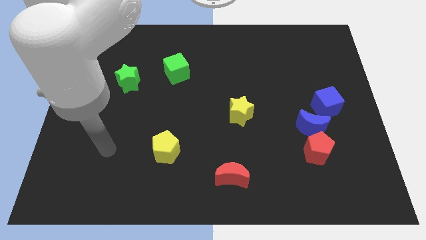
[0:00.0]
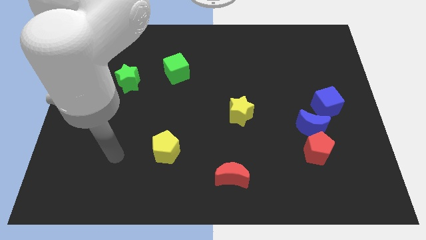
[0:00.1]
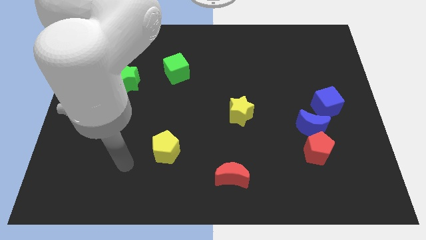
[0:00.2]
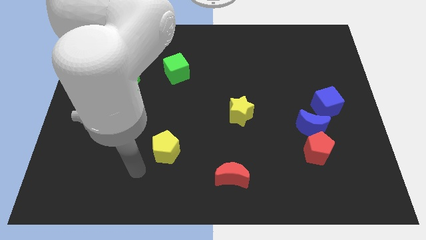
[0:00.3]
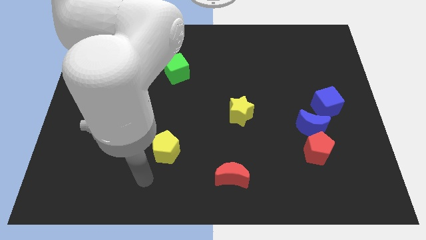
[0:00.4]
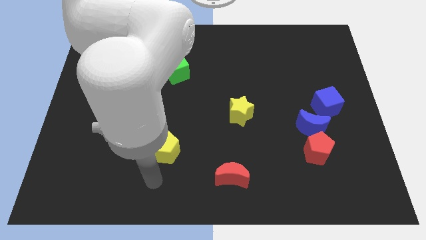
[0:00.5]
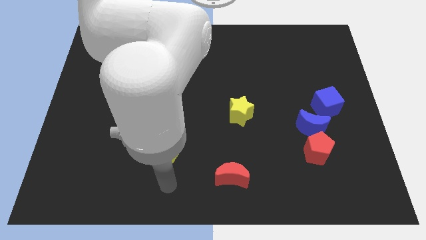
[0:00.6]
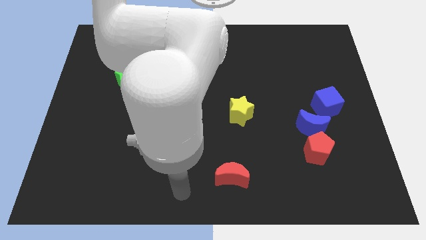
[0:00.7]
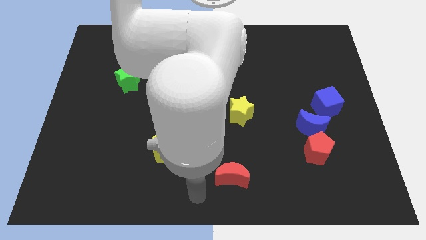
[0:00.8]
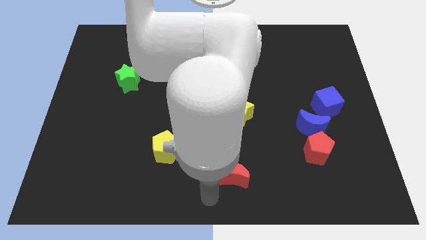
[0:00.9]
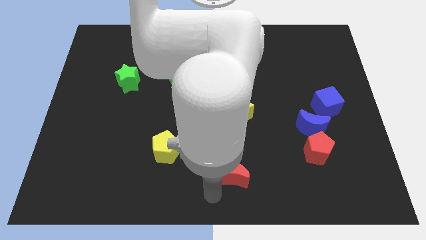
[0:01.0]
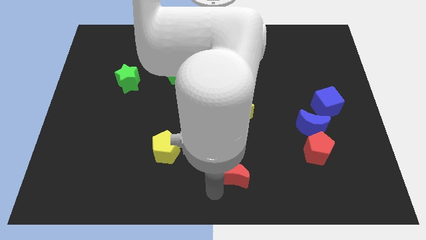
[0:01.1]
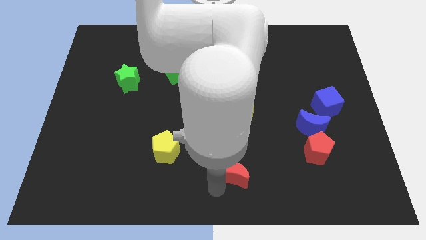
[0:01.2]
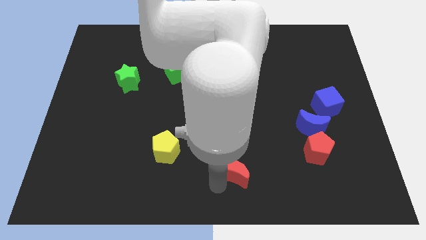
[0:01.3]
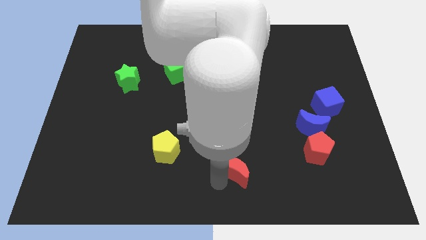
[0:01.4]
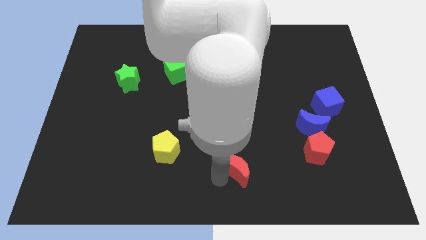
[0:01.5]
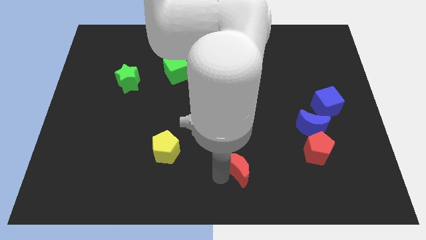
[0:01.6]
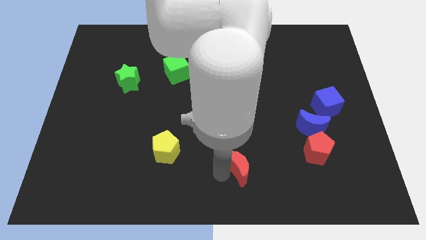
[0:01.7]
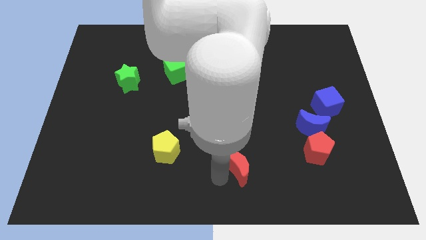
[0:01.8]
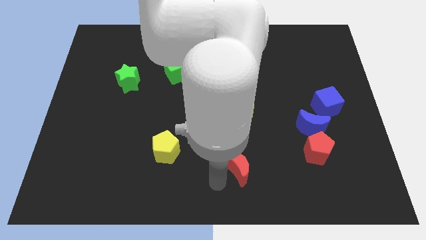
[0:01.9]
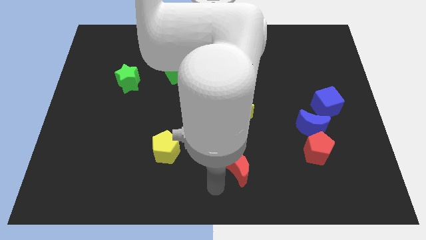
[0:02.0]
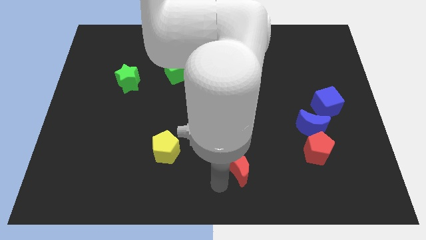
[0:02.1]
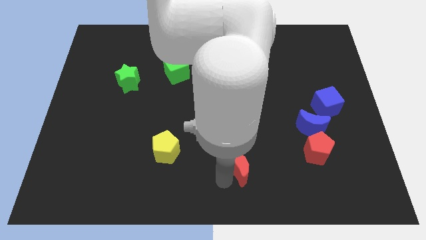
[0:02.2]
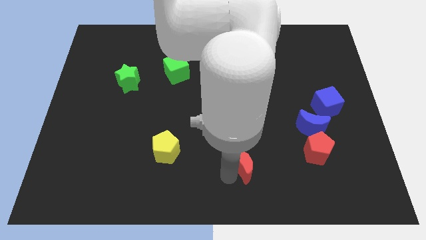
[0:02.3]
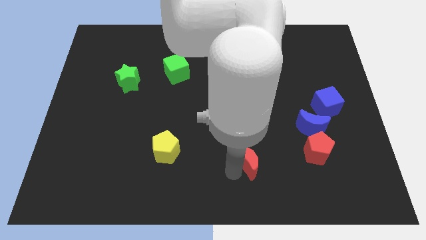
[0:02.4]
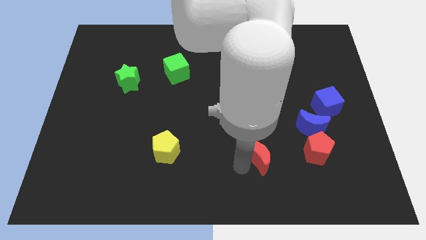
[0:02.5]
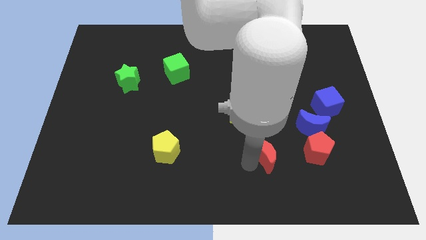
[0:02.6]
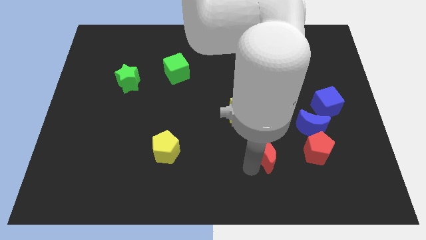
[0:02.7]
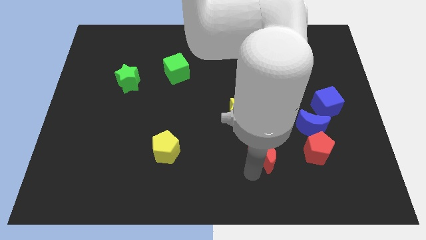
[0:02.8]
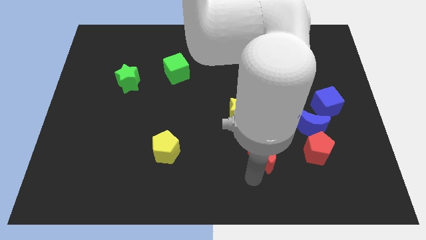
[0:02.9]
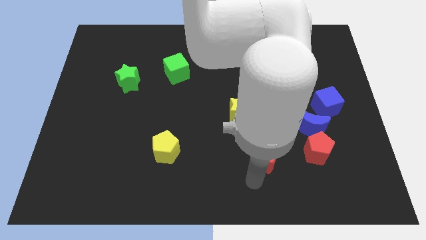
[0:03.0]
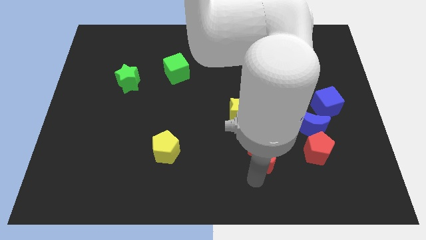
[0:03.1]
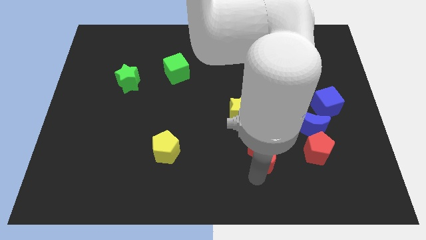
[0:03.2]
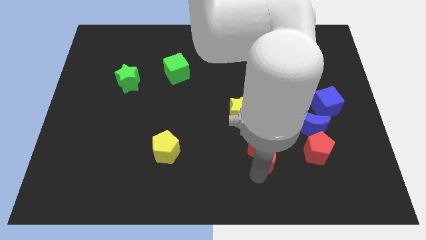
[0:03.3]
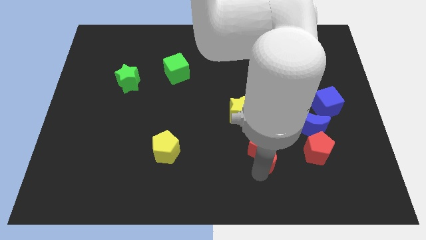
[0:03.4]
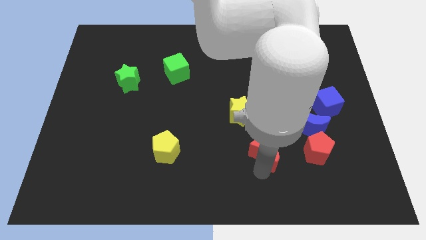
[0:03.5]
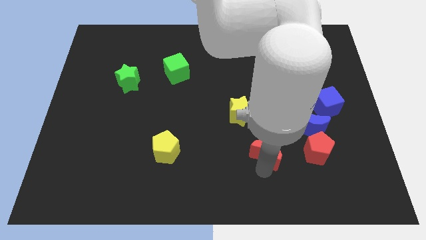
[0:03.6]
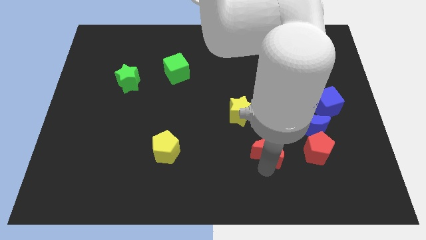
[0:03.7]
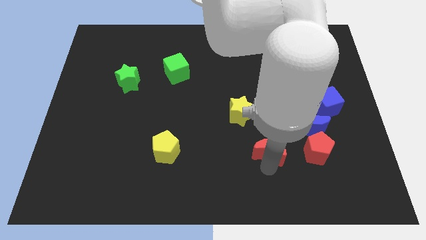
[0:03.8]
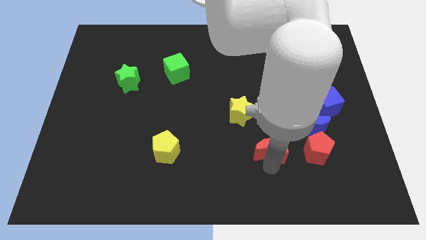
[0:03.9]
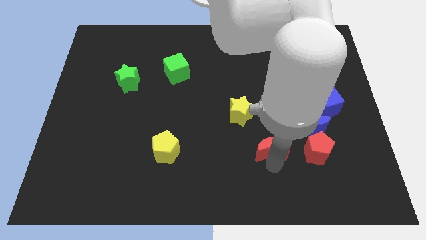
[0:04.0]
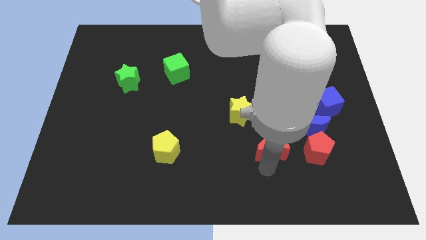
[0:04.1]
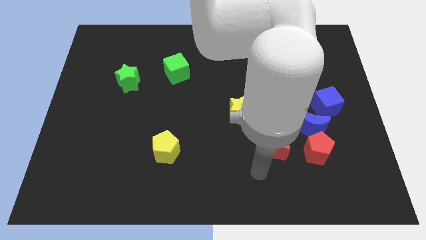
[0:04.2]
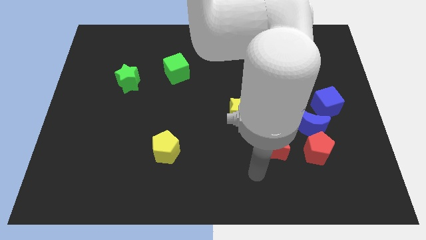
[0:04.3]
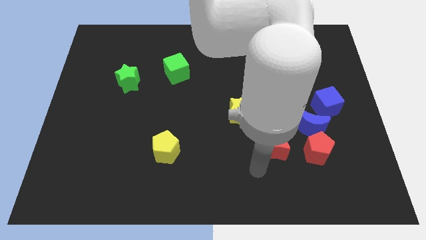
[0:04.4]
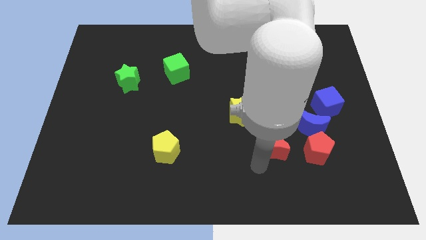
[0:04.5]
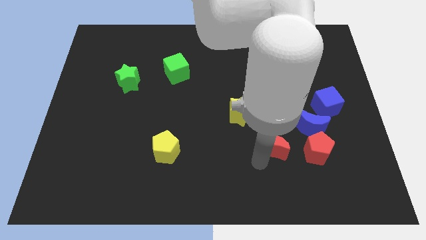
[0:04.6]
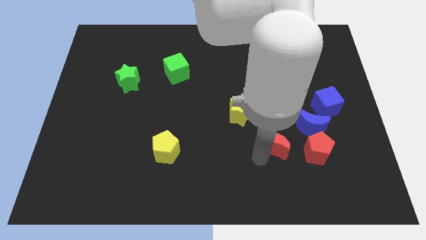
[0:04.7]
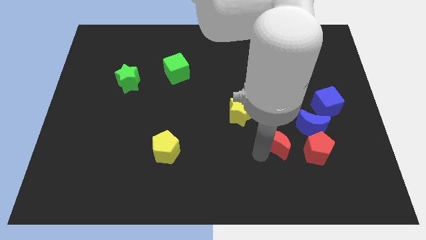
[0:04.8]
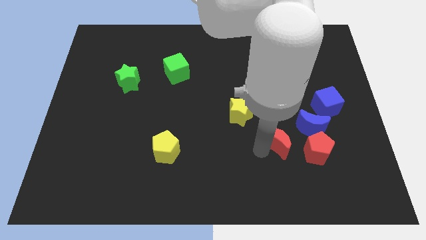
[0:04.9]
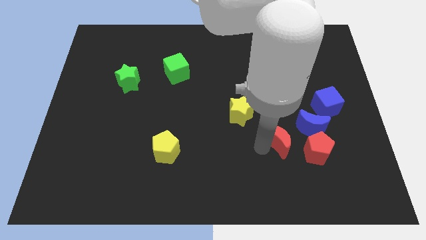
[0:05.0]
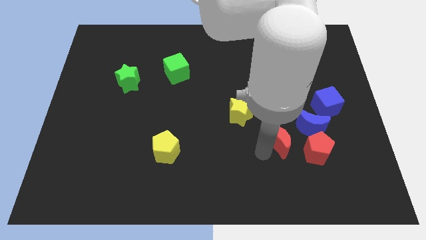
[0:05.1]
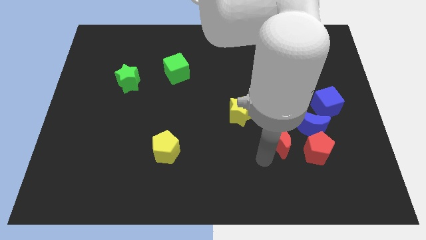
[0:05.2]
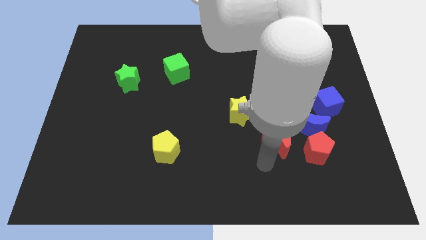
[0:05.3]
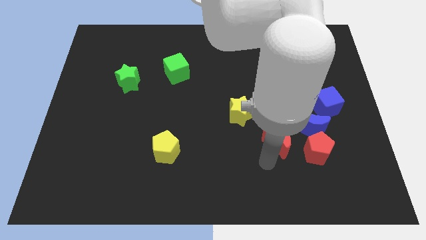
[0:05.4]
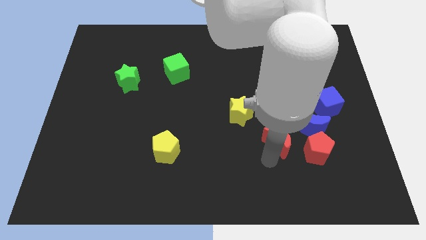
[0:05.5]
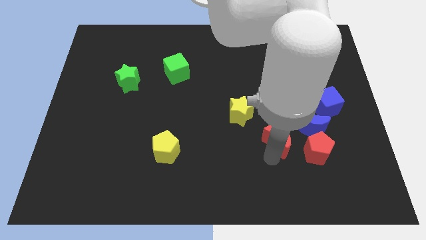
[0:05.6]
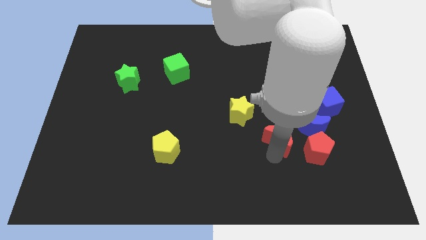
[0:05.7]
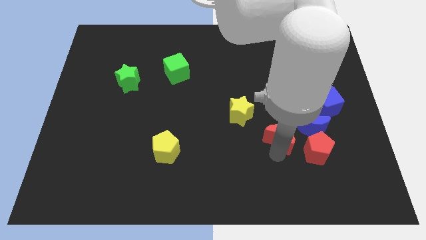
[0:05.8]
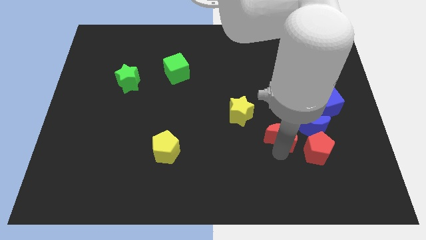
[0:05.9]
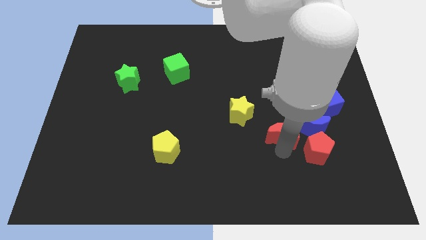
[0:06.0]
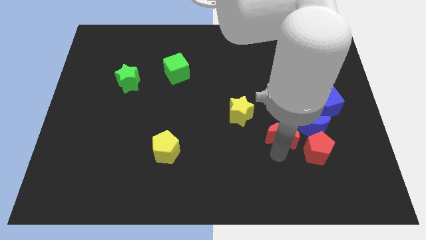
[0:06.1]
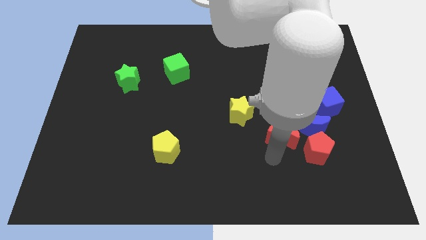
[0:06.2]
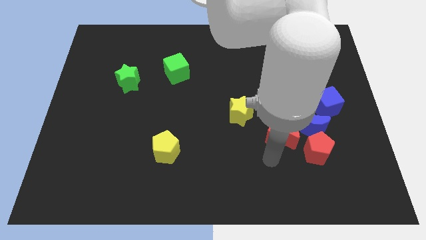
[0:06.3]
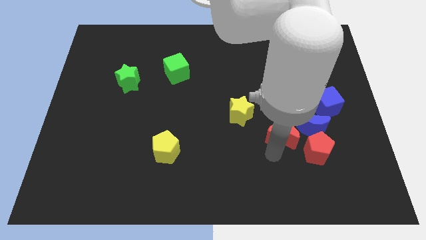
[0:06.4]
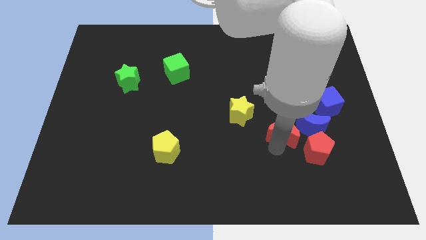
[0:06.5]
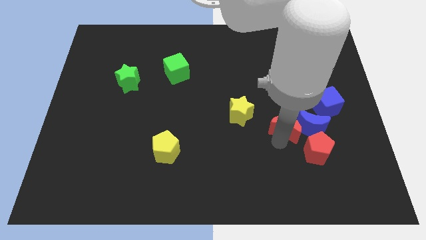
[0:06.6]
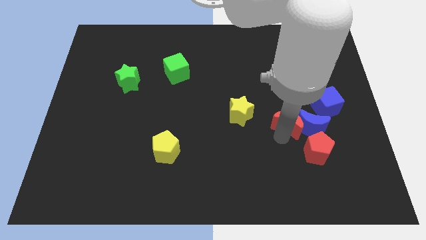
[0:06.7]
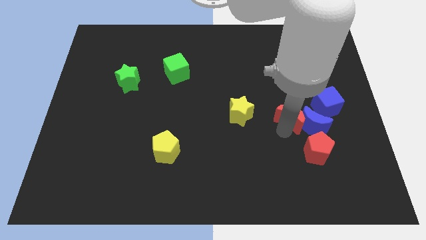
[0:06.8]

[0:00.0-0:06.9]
push the red moon upwards and then right

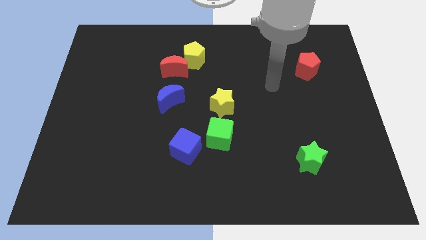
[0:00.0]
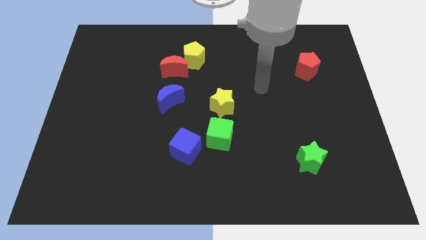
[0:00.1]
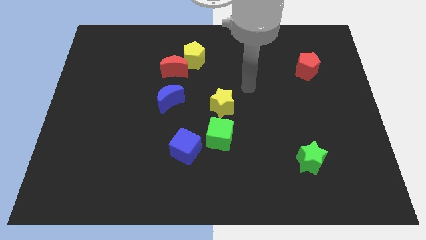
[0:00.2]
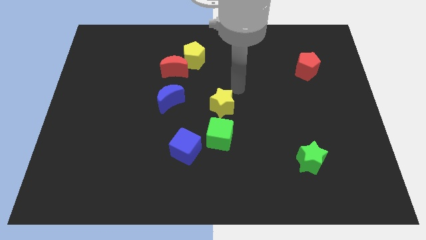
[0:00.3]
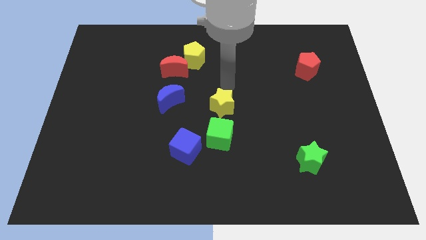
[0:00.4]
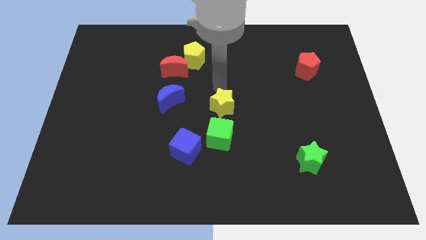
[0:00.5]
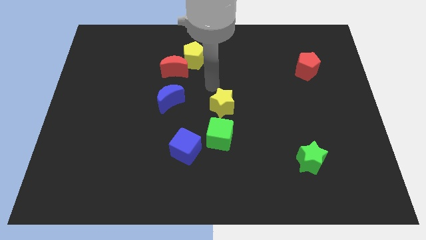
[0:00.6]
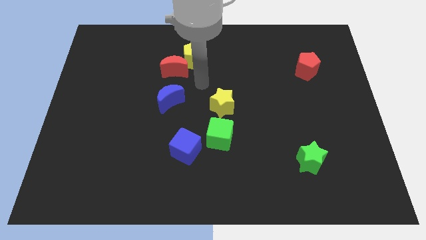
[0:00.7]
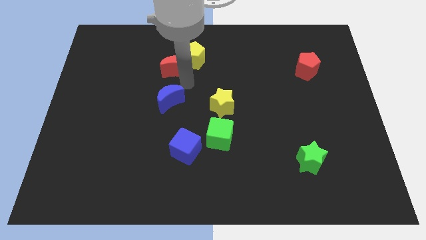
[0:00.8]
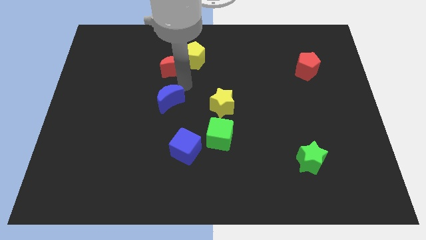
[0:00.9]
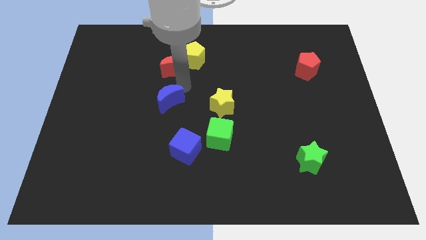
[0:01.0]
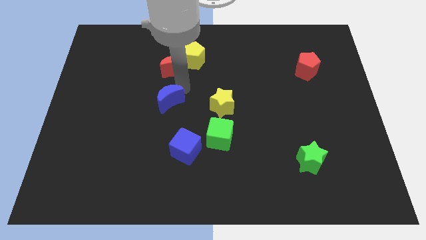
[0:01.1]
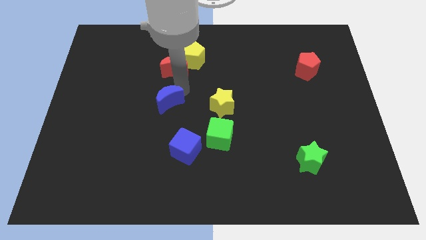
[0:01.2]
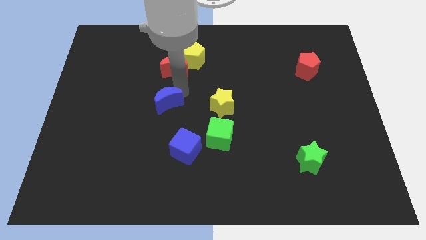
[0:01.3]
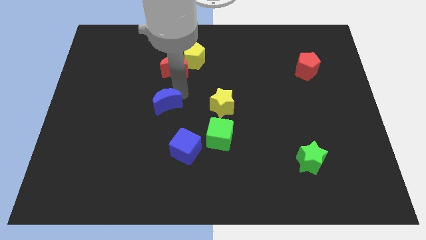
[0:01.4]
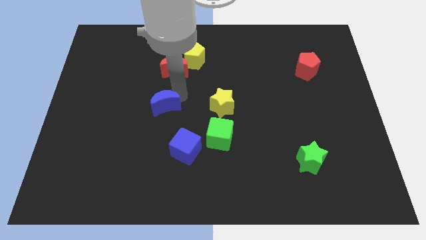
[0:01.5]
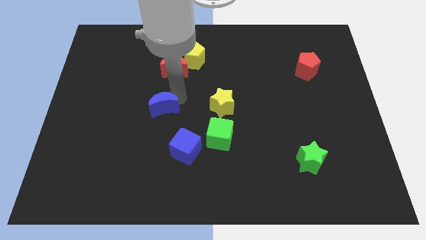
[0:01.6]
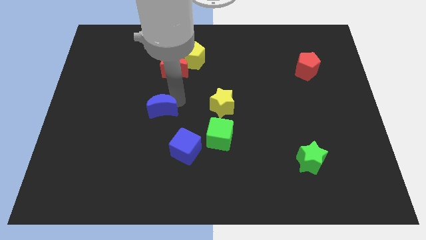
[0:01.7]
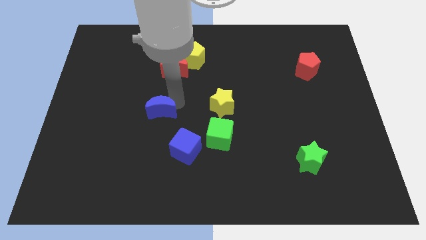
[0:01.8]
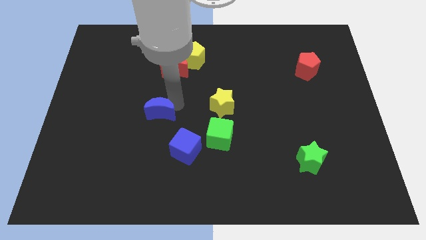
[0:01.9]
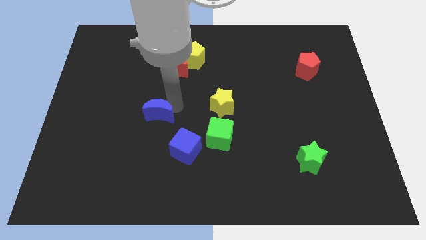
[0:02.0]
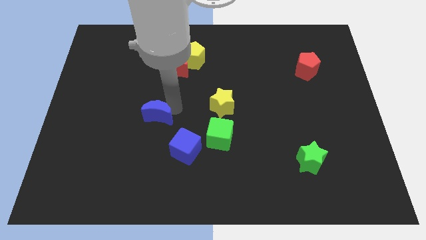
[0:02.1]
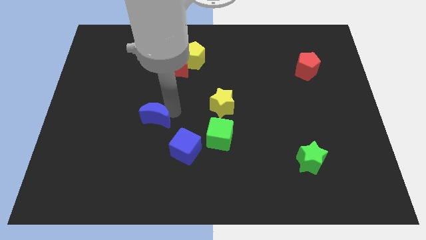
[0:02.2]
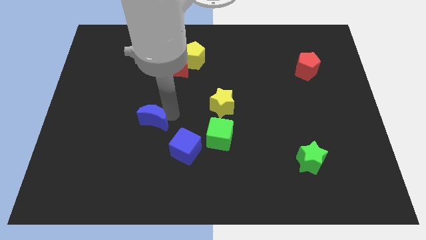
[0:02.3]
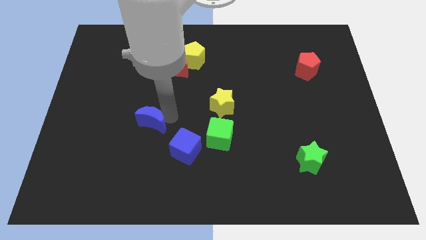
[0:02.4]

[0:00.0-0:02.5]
push the blue moon down and then left slightly
